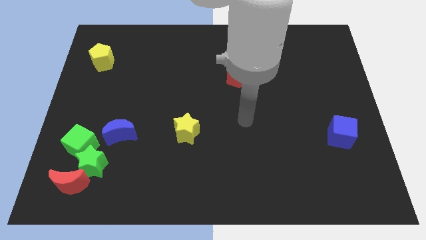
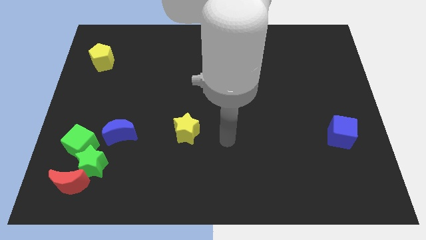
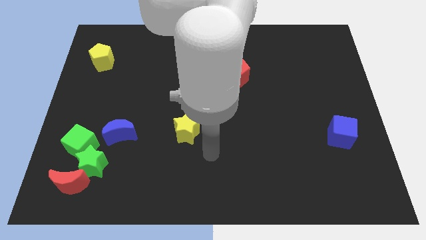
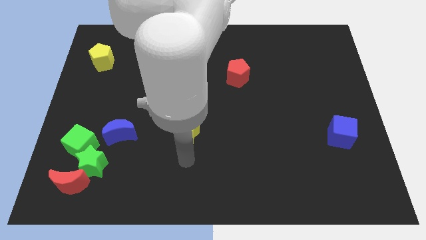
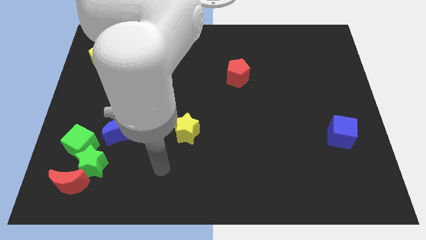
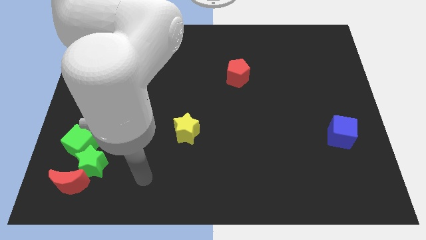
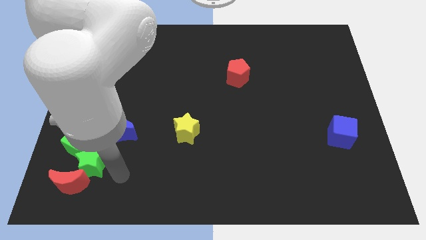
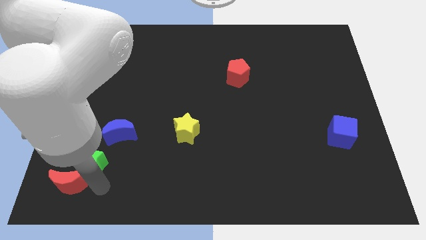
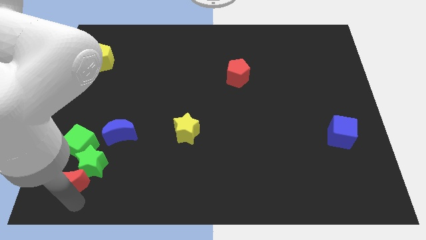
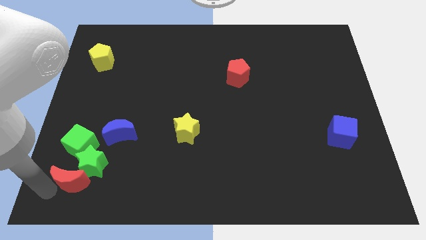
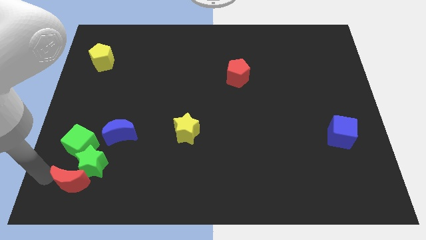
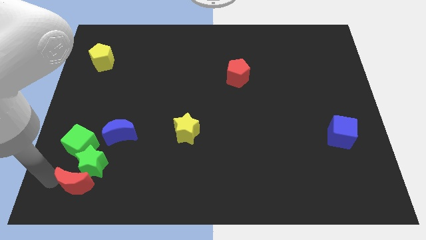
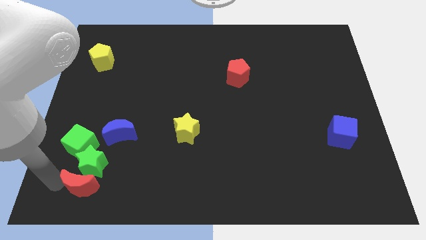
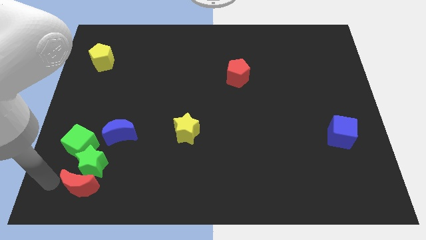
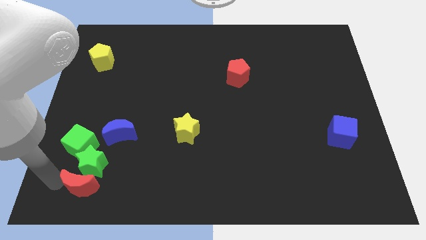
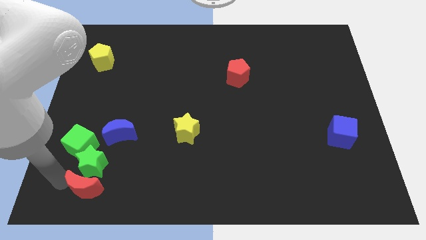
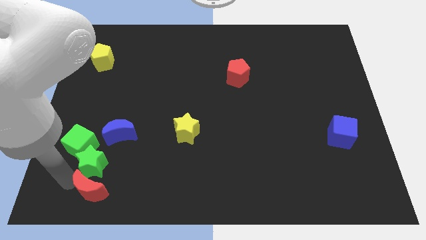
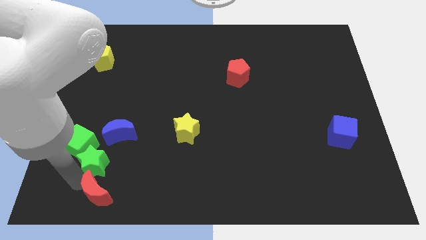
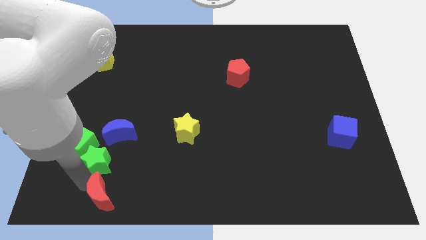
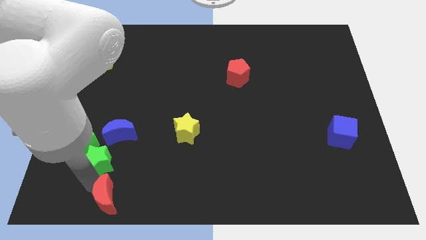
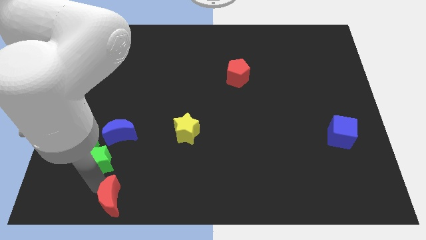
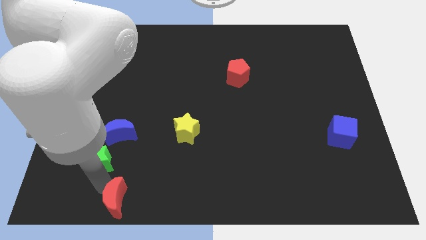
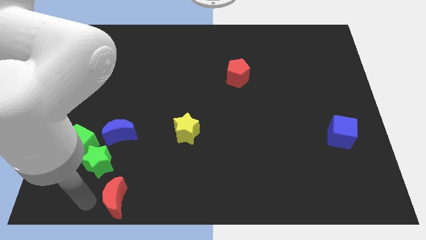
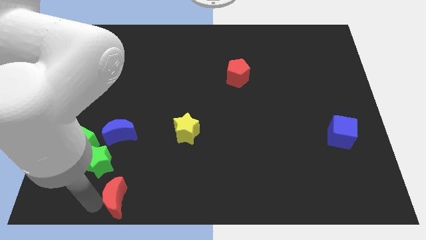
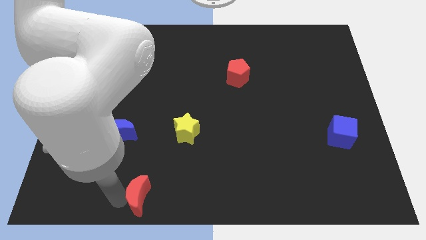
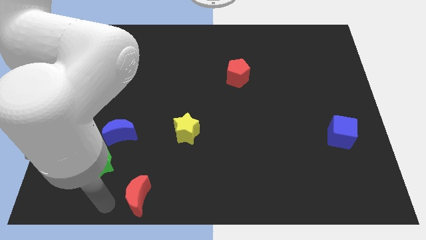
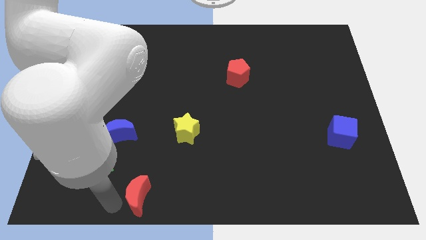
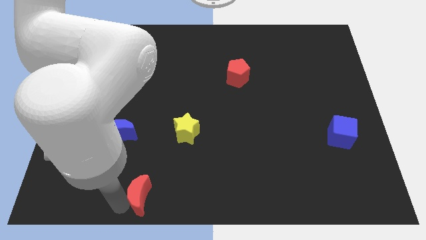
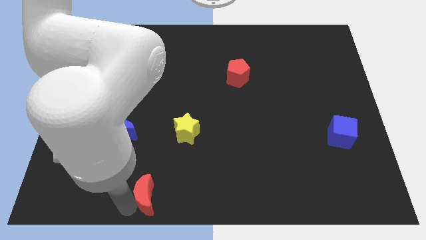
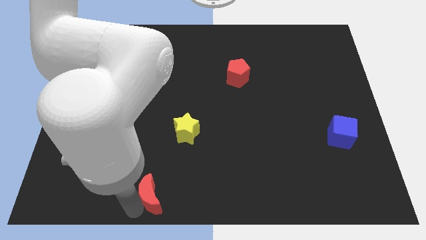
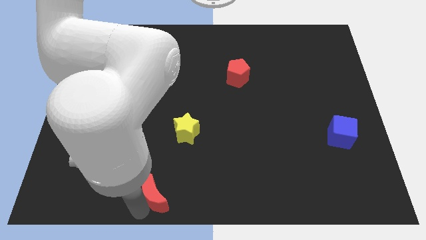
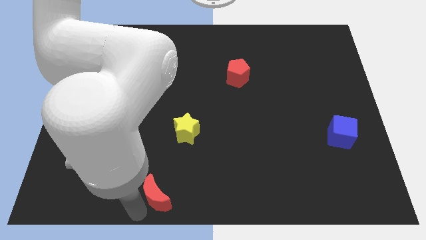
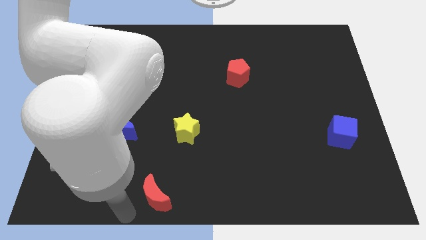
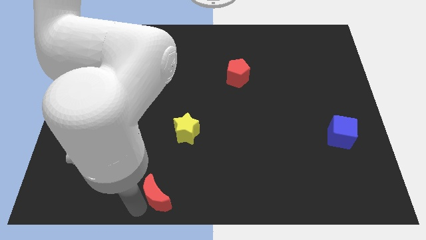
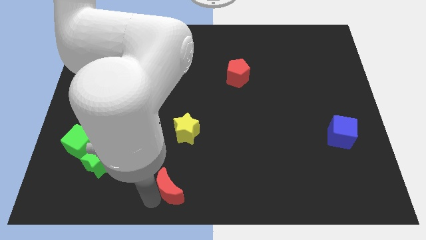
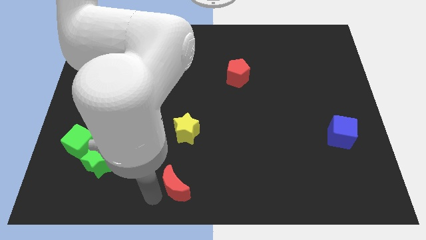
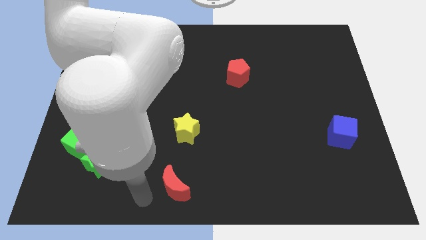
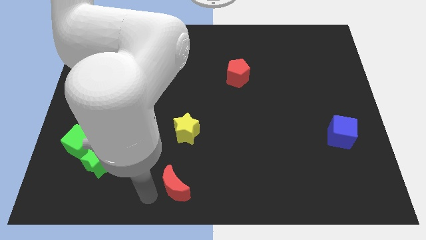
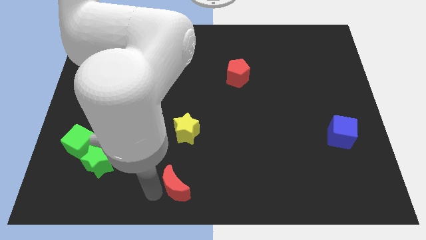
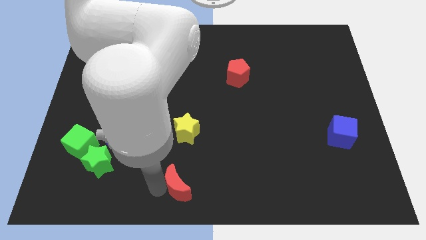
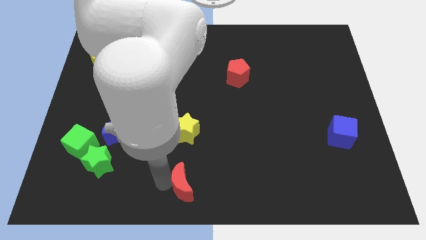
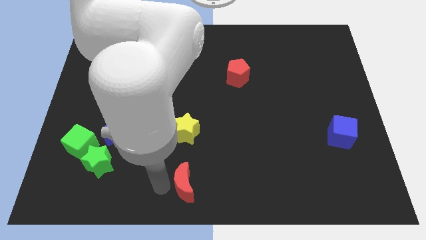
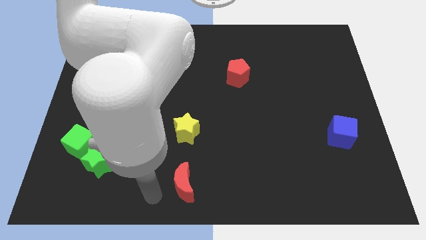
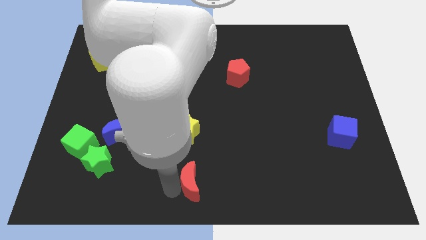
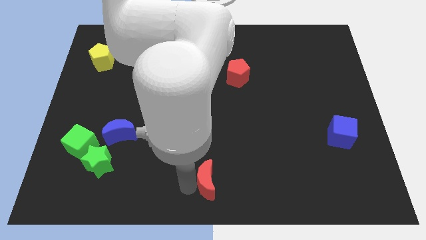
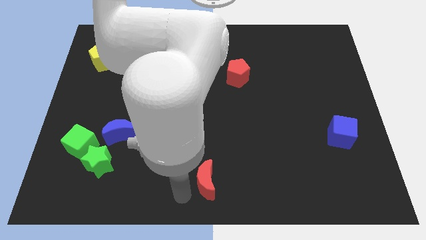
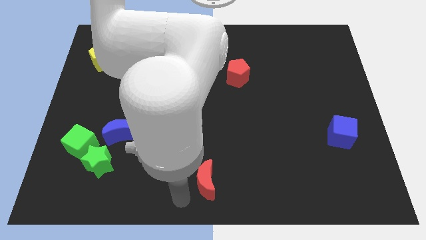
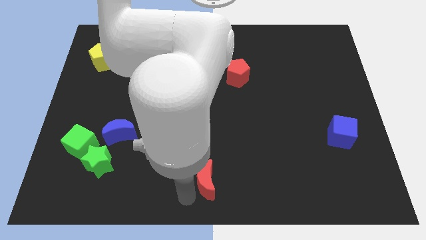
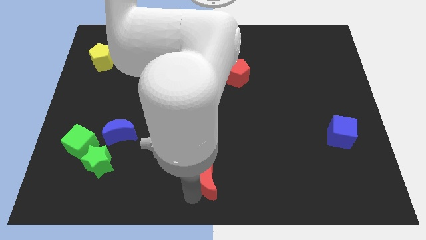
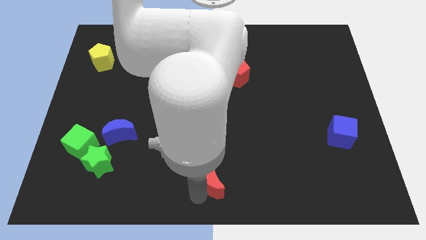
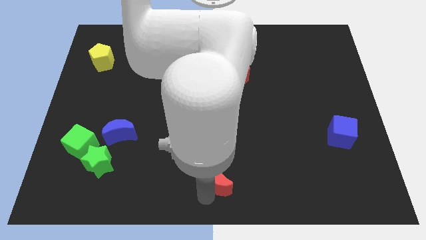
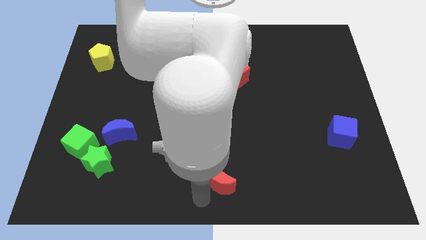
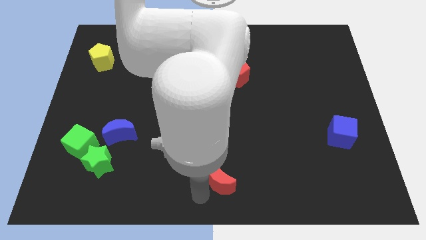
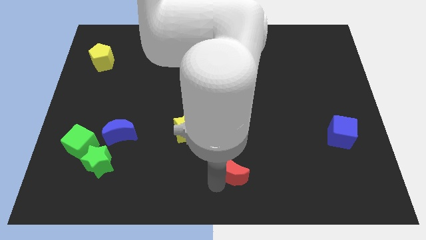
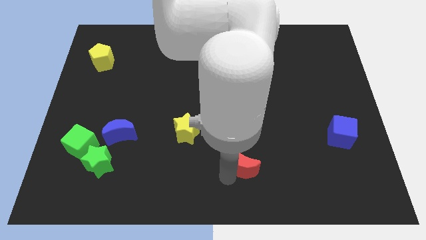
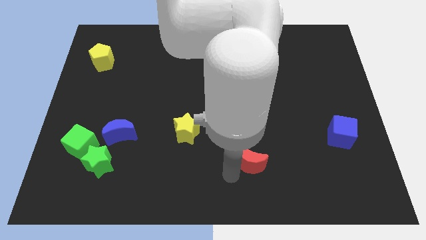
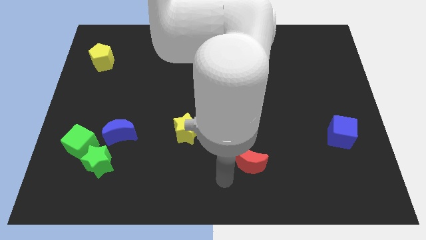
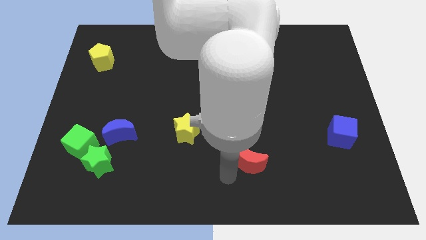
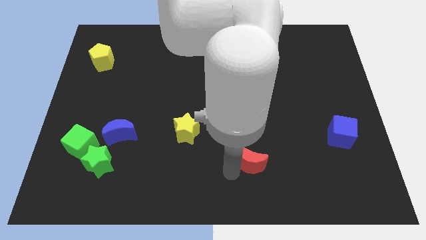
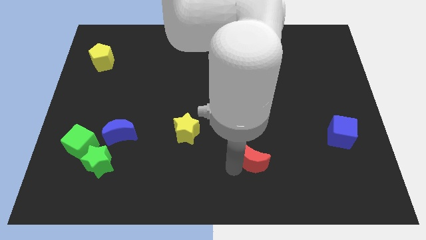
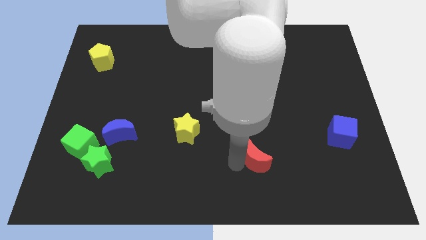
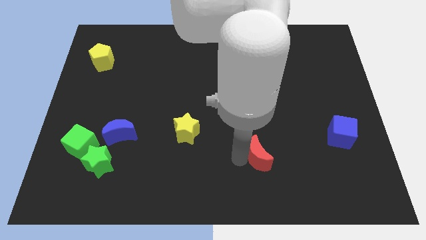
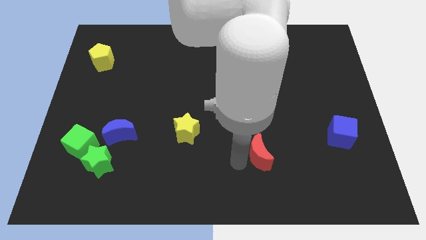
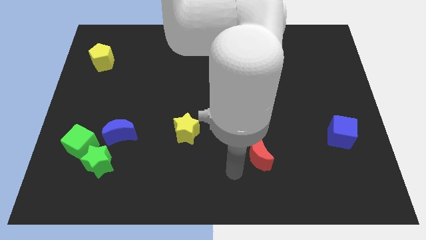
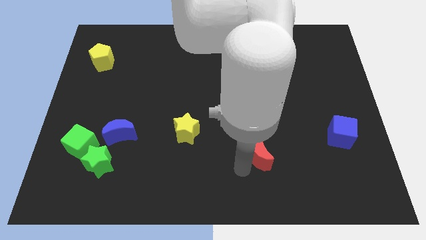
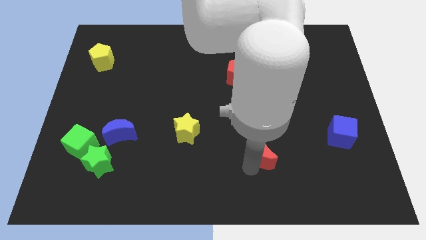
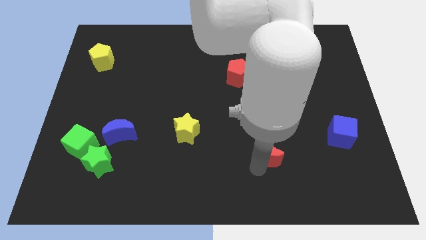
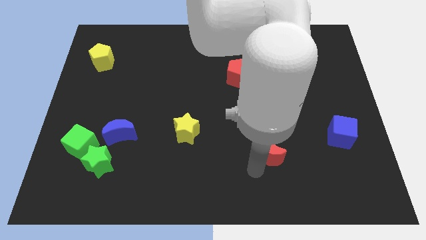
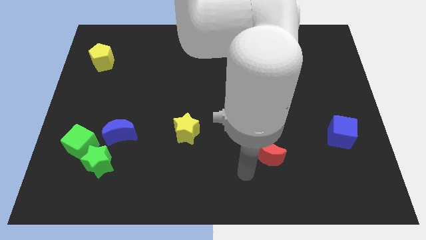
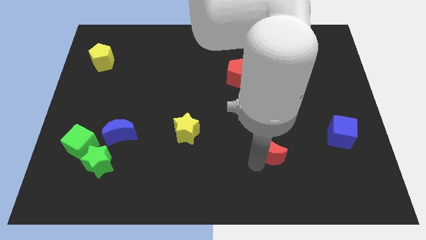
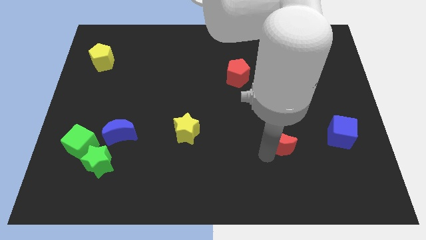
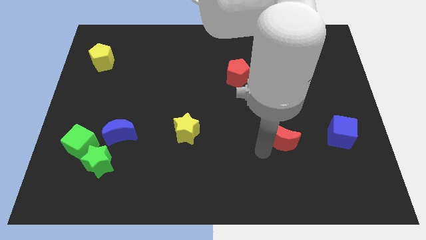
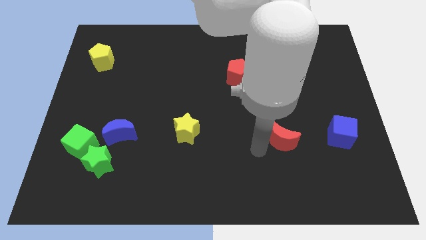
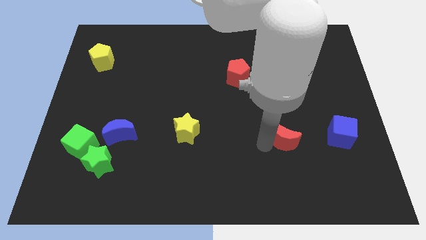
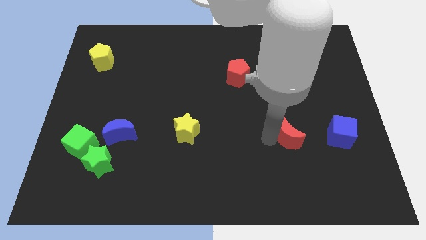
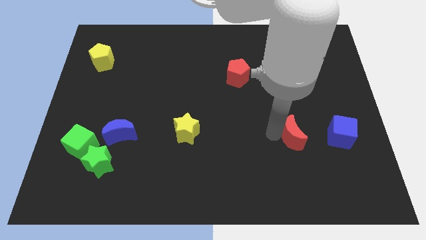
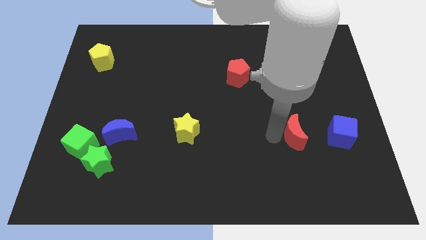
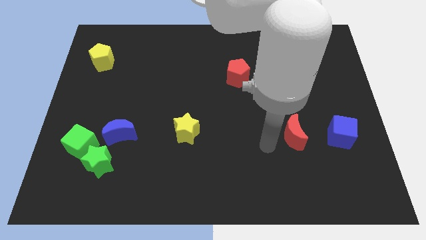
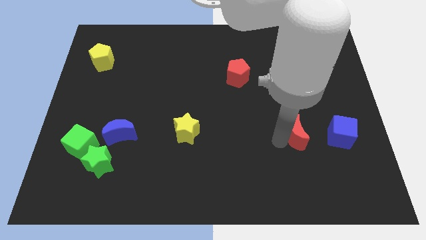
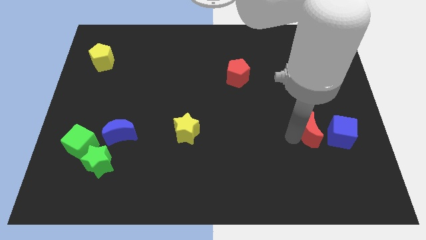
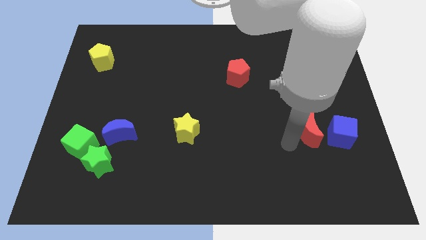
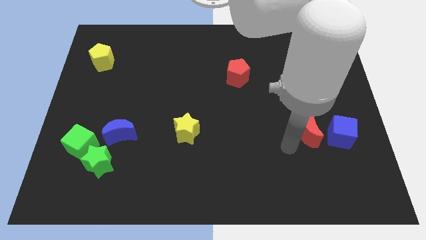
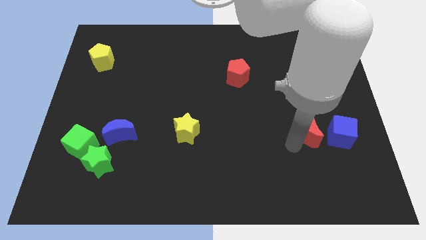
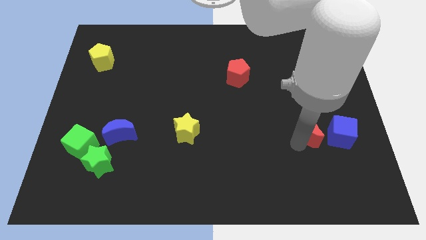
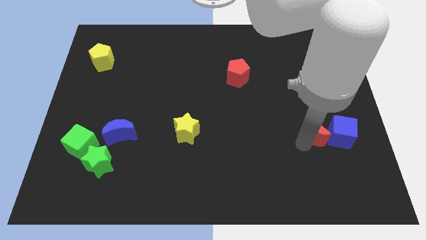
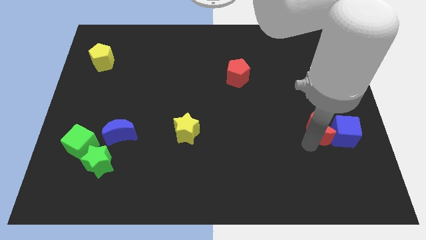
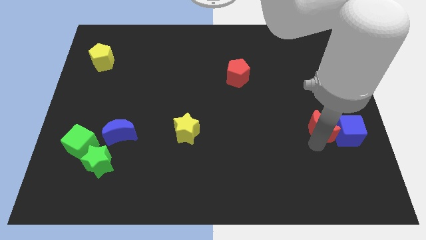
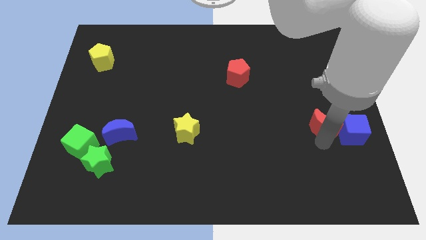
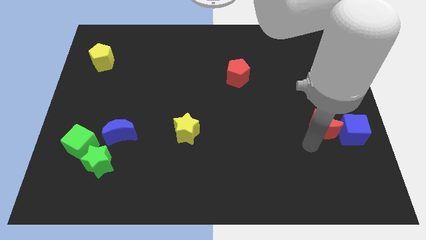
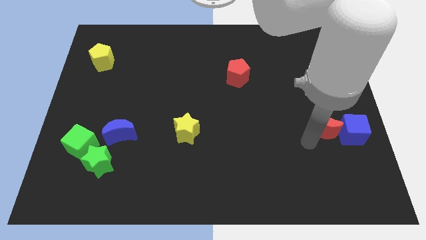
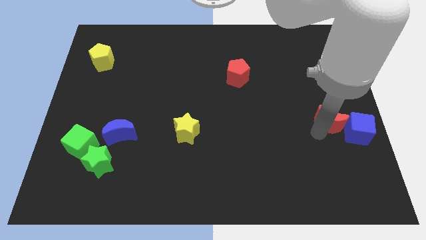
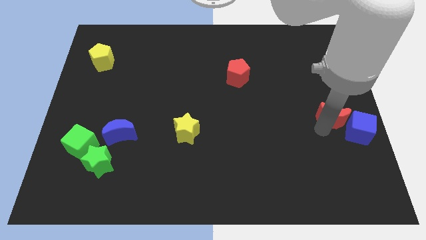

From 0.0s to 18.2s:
push the red moon to the center right
